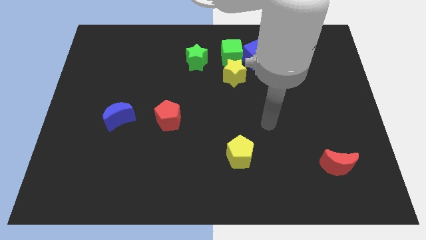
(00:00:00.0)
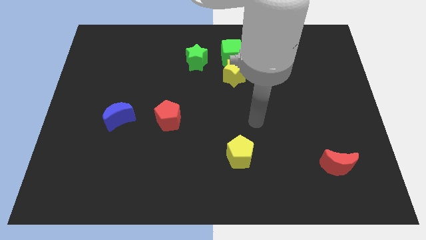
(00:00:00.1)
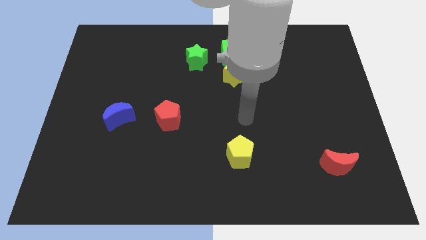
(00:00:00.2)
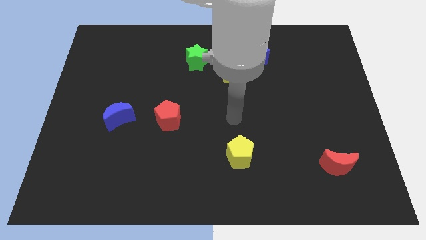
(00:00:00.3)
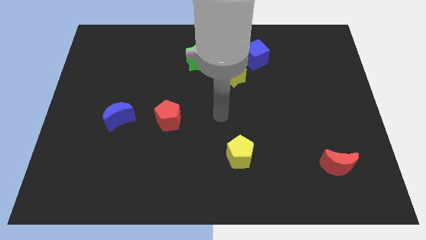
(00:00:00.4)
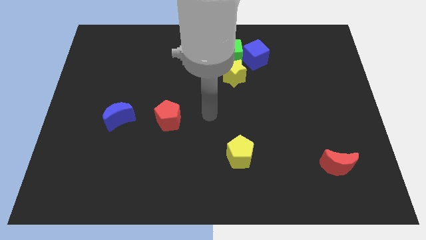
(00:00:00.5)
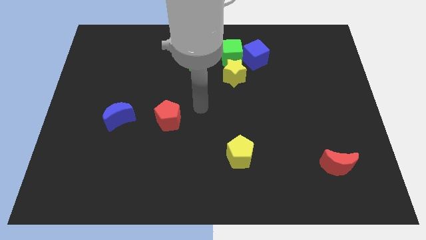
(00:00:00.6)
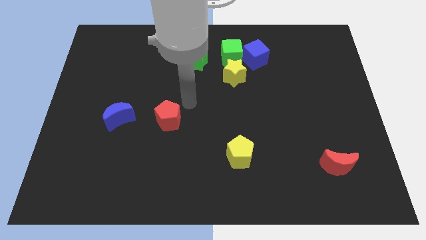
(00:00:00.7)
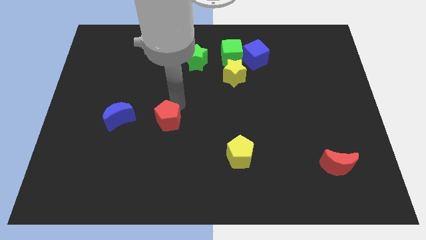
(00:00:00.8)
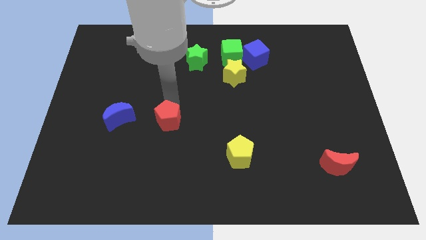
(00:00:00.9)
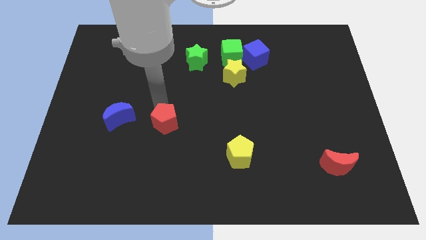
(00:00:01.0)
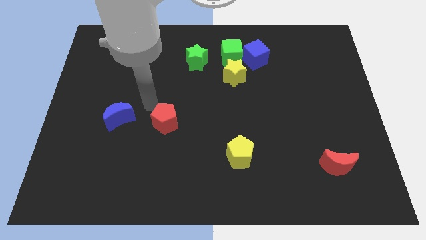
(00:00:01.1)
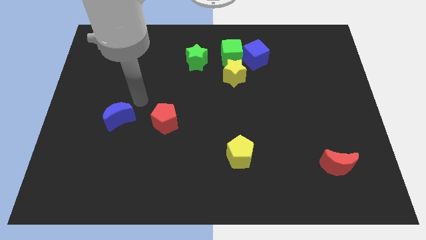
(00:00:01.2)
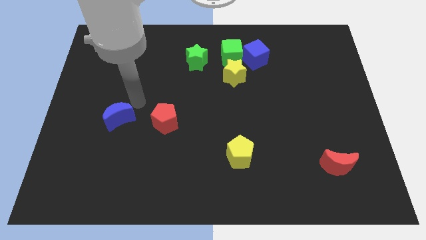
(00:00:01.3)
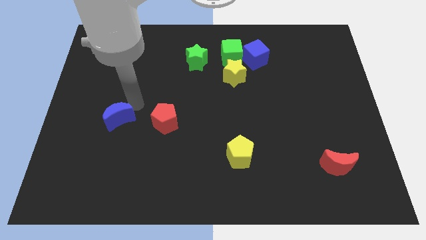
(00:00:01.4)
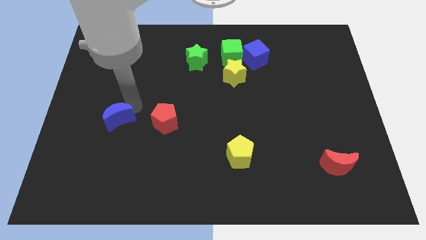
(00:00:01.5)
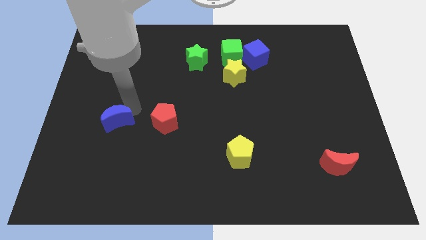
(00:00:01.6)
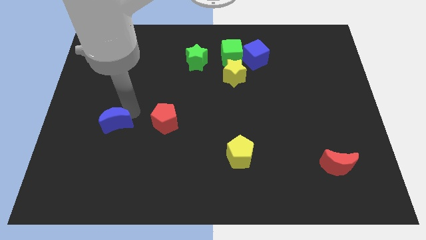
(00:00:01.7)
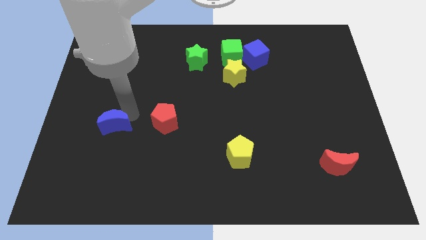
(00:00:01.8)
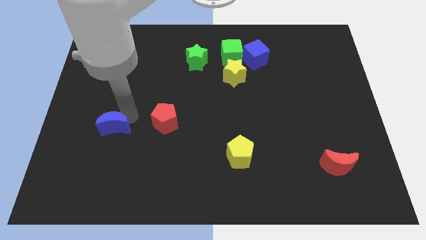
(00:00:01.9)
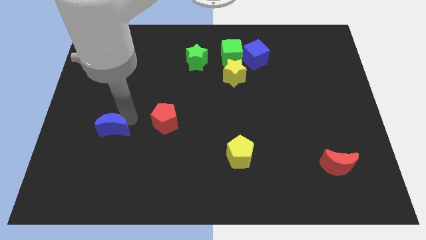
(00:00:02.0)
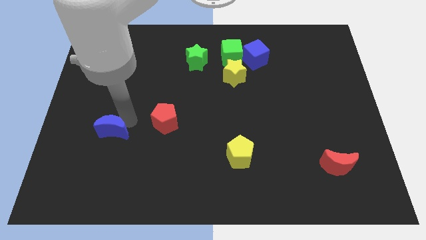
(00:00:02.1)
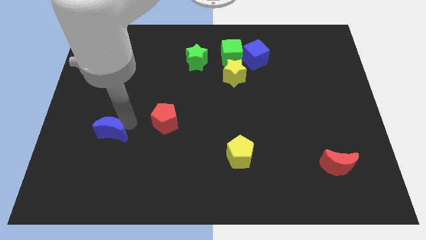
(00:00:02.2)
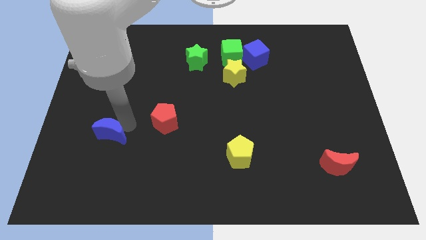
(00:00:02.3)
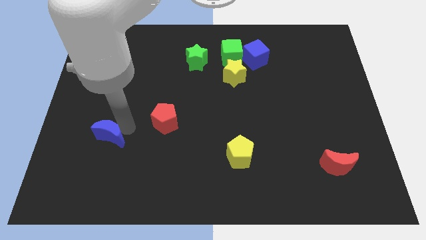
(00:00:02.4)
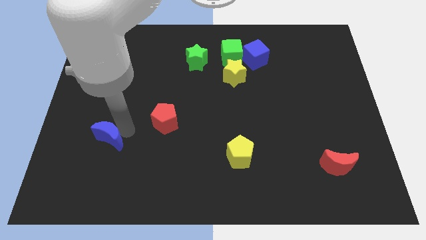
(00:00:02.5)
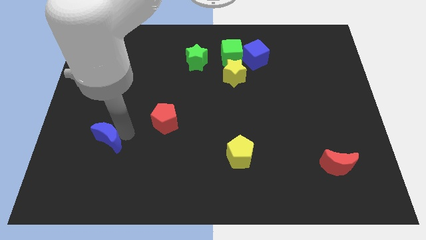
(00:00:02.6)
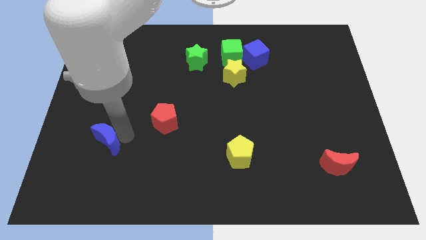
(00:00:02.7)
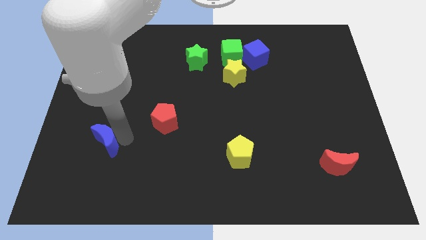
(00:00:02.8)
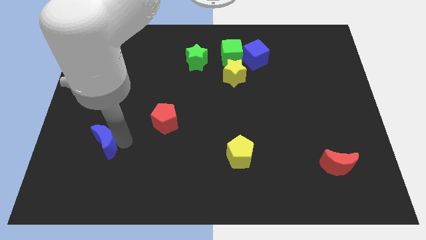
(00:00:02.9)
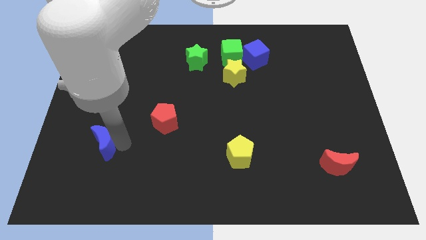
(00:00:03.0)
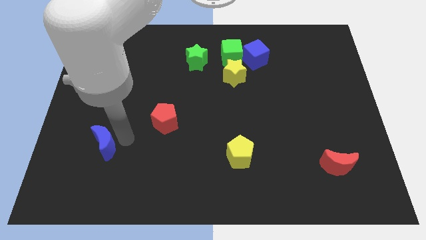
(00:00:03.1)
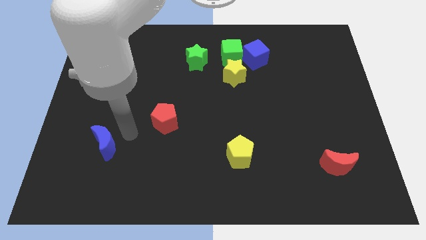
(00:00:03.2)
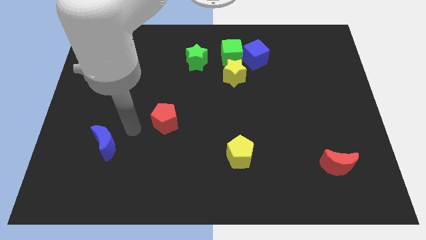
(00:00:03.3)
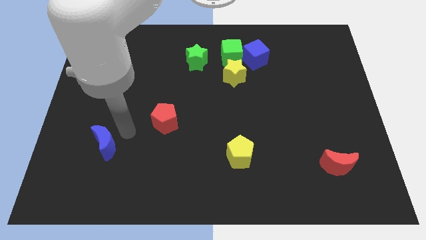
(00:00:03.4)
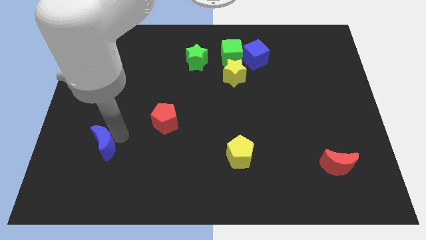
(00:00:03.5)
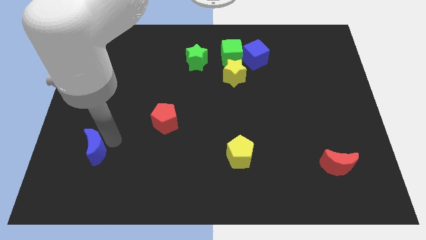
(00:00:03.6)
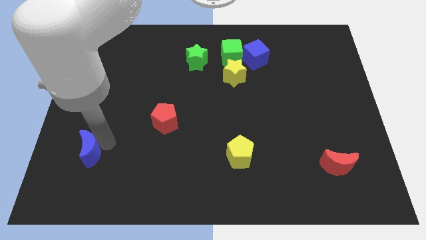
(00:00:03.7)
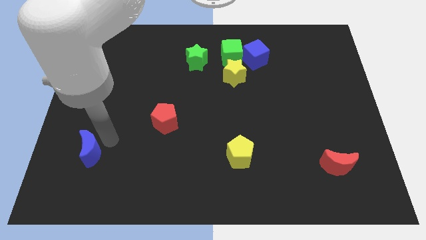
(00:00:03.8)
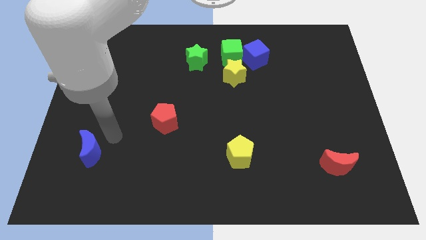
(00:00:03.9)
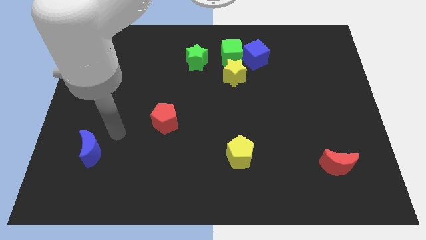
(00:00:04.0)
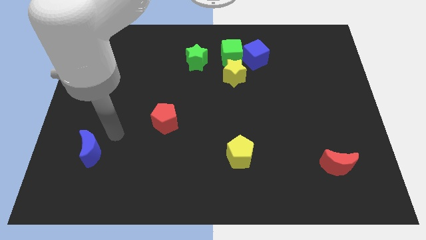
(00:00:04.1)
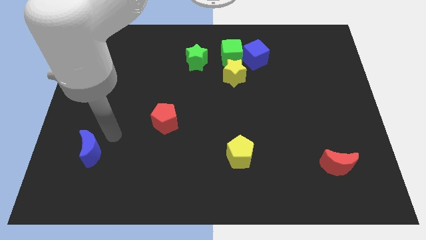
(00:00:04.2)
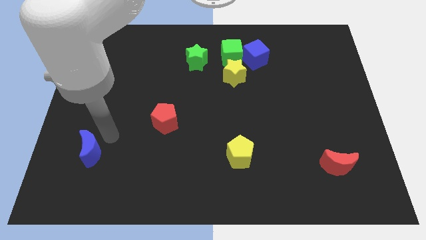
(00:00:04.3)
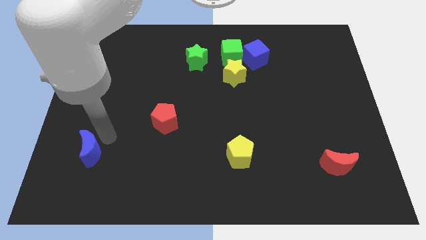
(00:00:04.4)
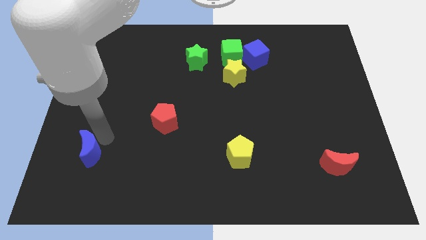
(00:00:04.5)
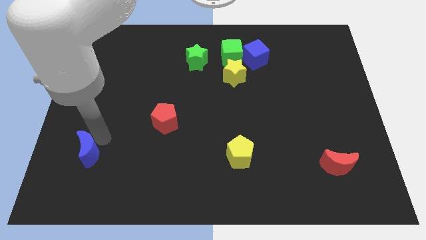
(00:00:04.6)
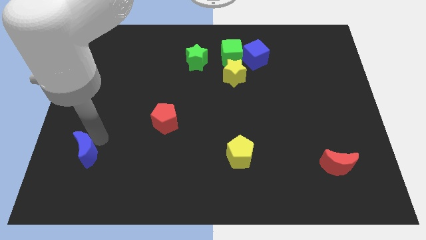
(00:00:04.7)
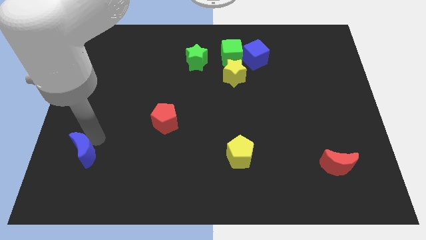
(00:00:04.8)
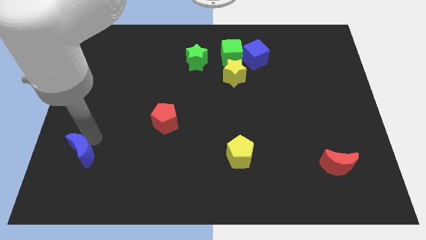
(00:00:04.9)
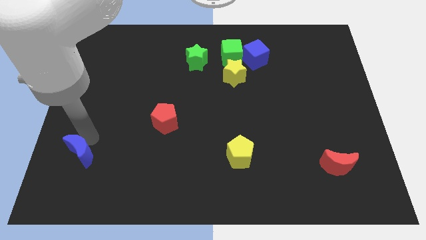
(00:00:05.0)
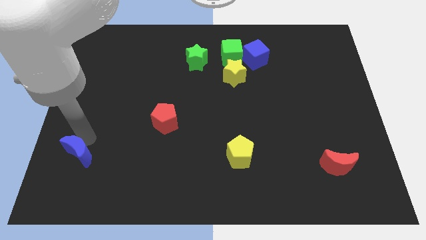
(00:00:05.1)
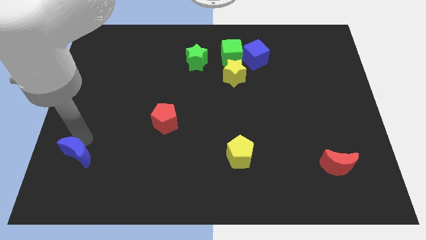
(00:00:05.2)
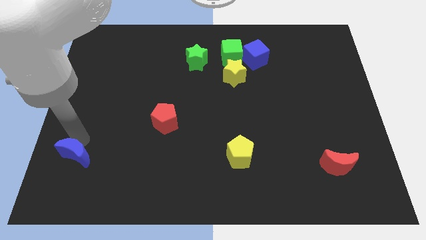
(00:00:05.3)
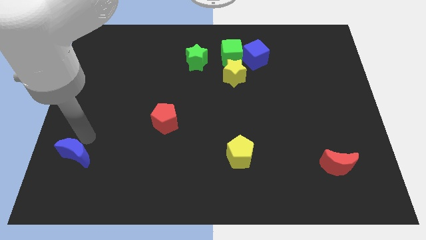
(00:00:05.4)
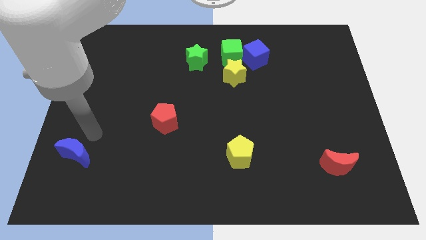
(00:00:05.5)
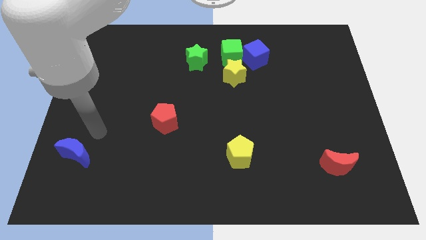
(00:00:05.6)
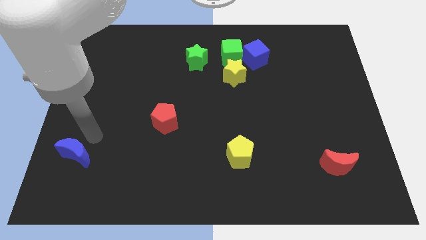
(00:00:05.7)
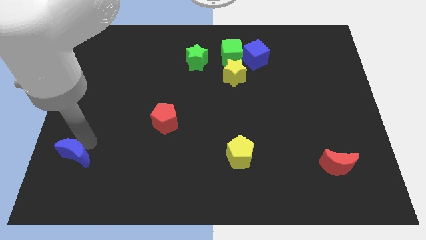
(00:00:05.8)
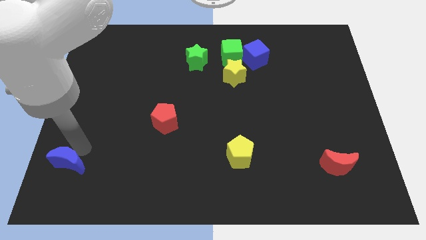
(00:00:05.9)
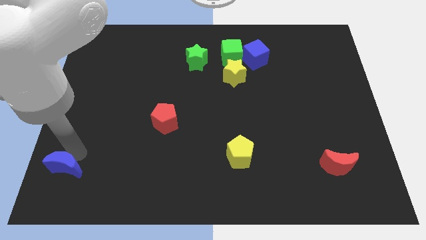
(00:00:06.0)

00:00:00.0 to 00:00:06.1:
push the blue moon to the bottom left corner

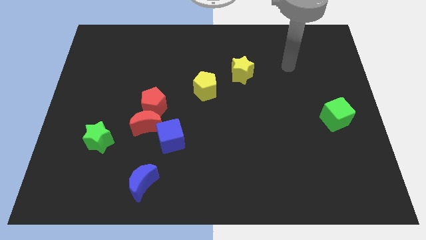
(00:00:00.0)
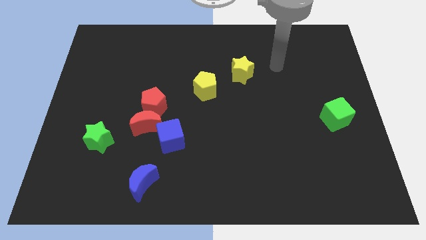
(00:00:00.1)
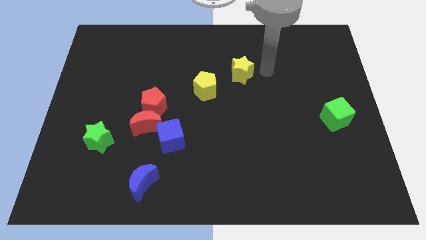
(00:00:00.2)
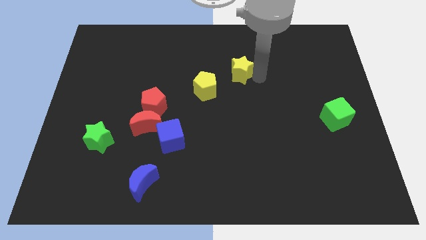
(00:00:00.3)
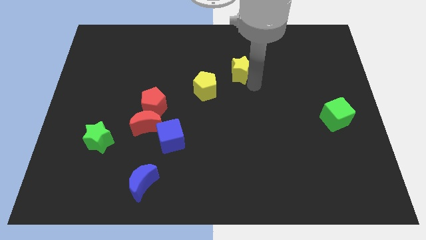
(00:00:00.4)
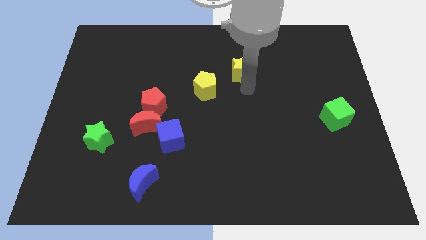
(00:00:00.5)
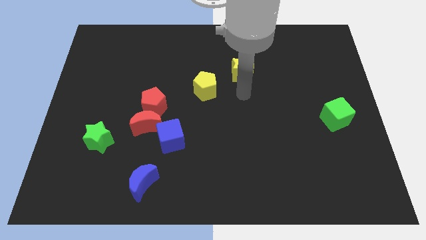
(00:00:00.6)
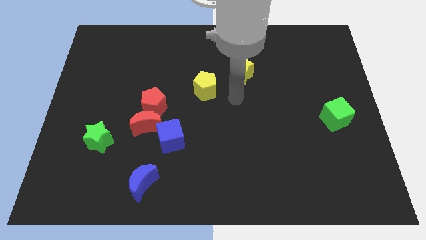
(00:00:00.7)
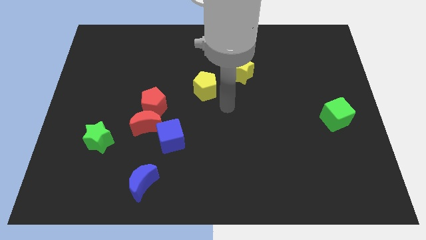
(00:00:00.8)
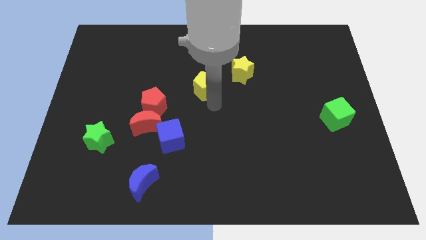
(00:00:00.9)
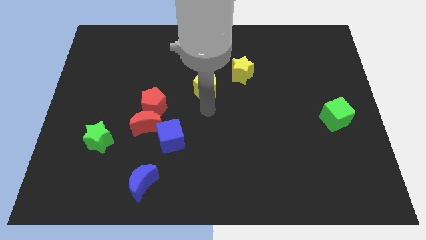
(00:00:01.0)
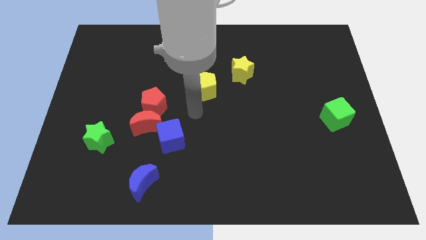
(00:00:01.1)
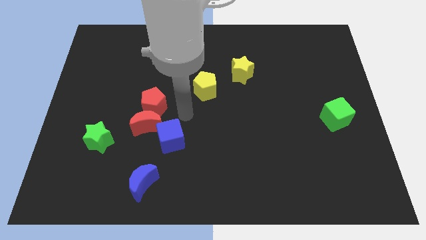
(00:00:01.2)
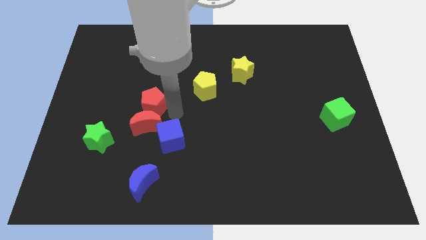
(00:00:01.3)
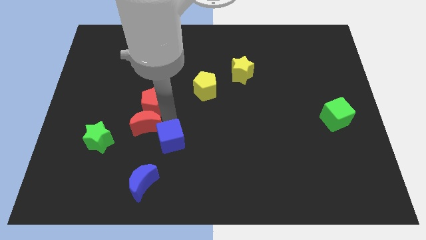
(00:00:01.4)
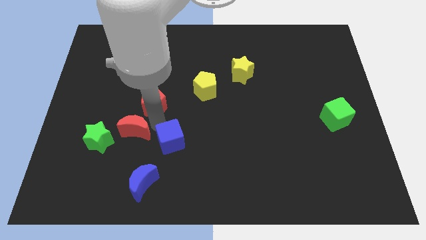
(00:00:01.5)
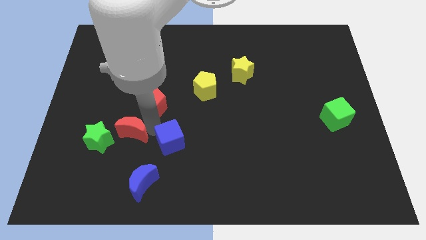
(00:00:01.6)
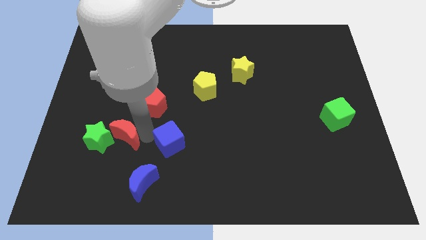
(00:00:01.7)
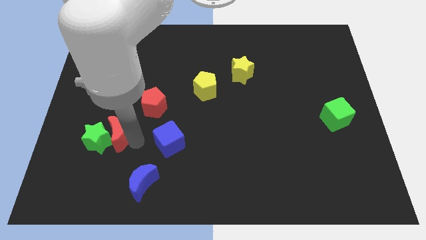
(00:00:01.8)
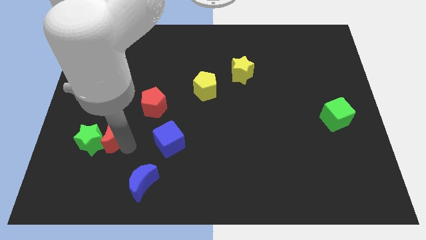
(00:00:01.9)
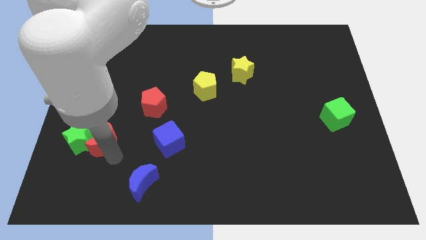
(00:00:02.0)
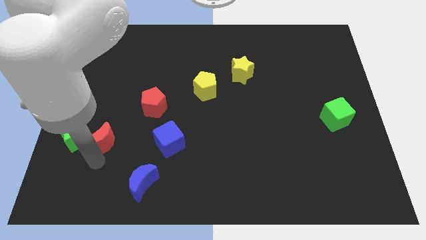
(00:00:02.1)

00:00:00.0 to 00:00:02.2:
slide the green star to the center left
